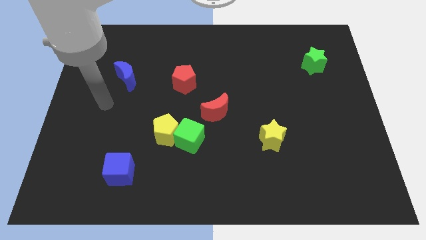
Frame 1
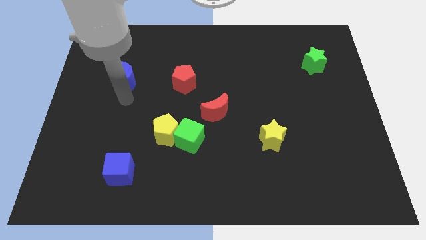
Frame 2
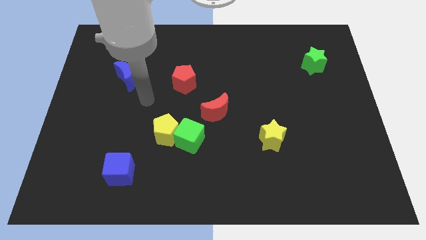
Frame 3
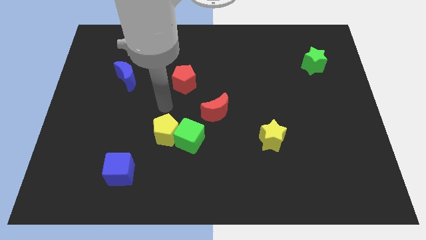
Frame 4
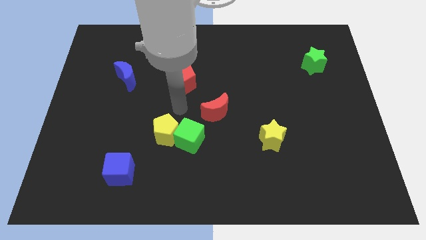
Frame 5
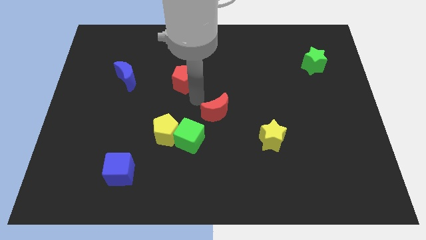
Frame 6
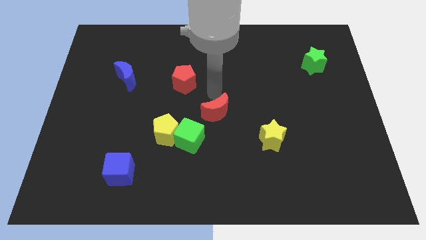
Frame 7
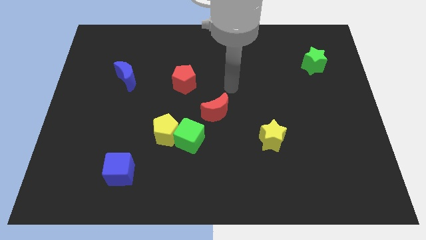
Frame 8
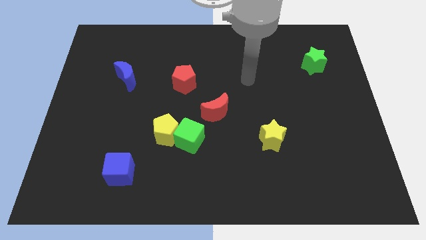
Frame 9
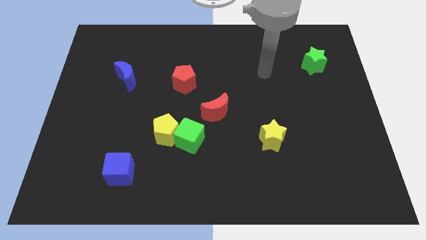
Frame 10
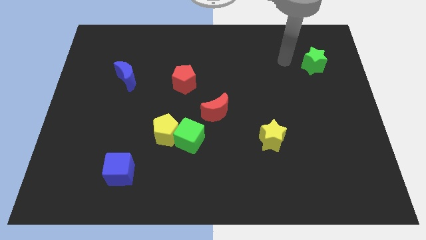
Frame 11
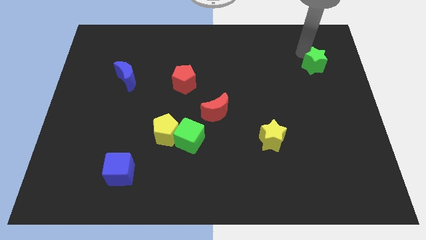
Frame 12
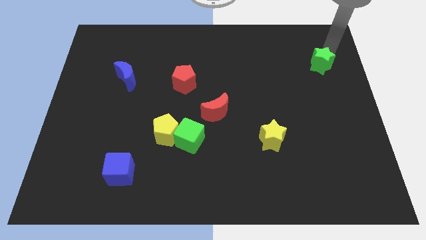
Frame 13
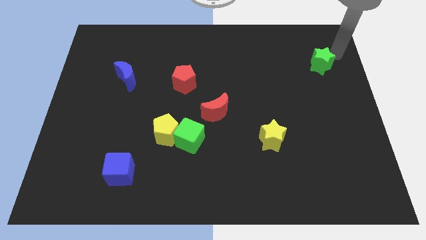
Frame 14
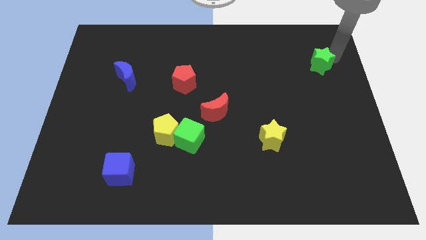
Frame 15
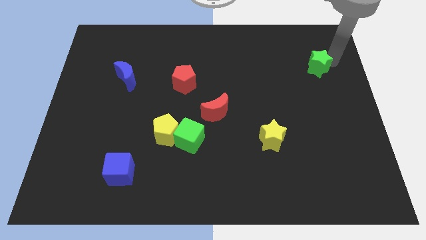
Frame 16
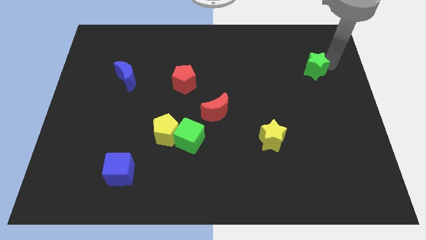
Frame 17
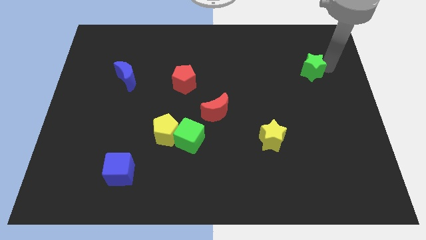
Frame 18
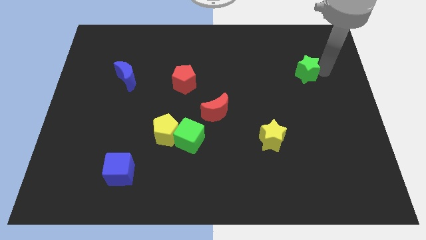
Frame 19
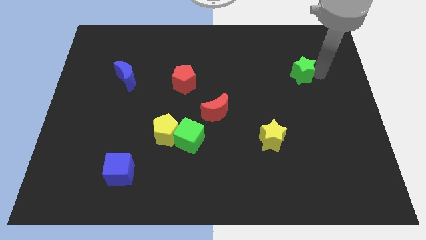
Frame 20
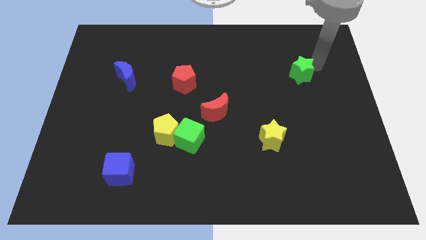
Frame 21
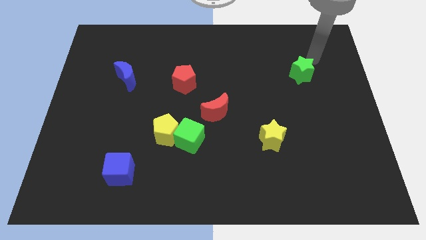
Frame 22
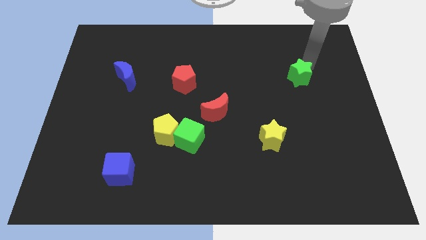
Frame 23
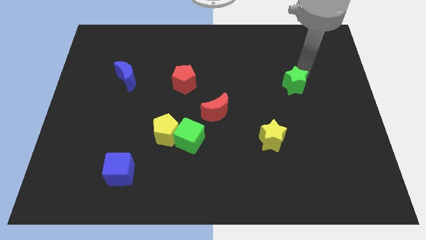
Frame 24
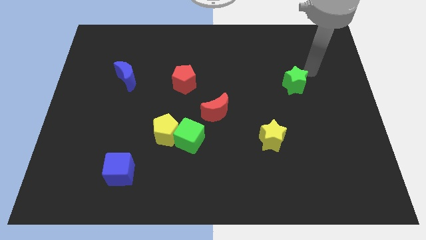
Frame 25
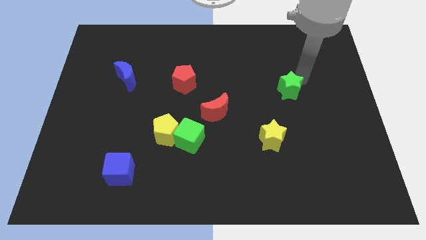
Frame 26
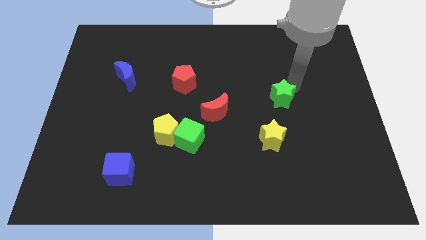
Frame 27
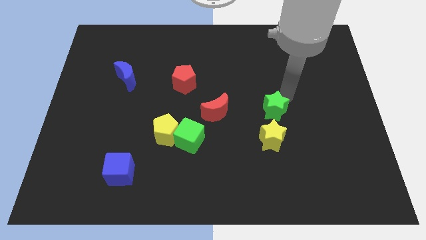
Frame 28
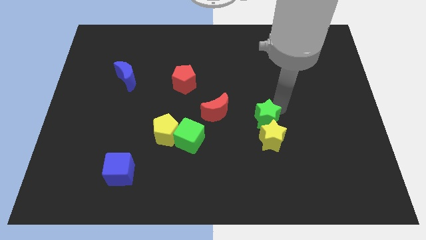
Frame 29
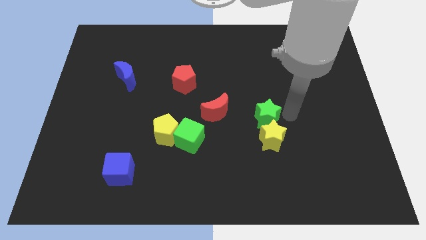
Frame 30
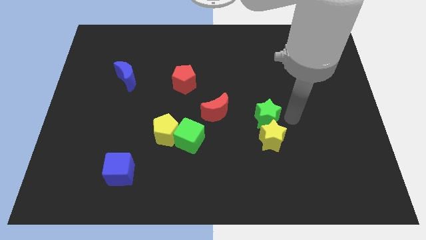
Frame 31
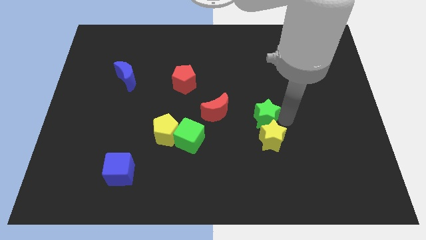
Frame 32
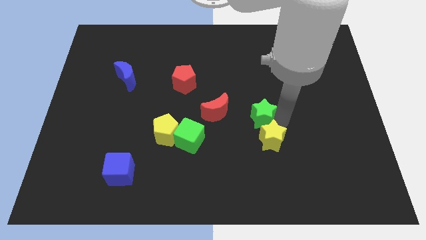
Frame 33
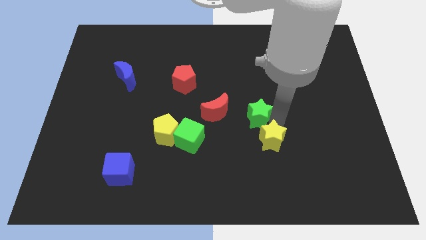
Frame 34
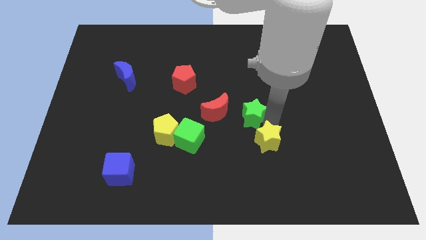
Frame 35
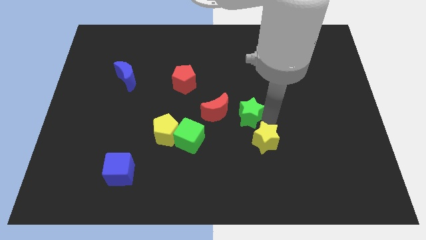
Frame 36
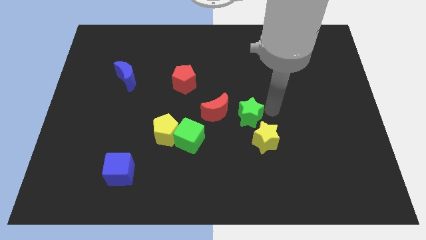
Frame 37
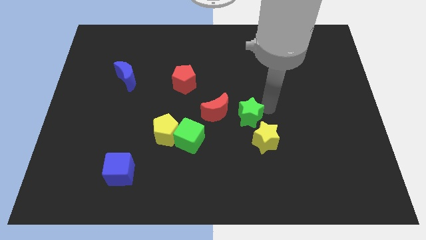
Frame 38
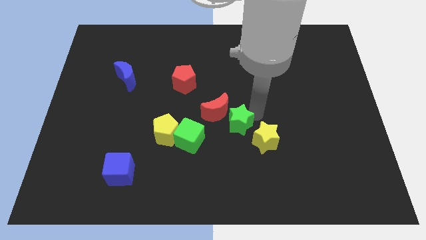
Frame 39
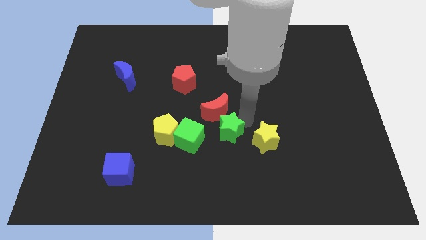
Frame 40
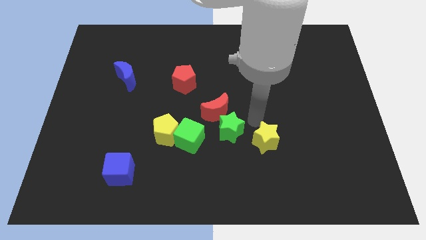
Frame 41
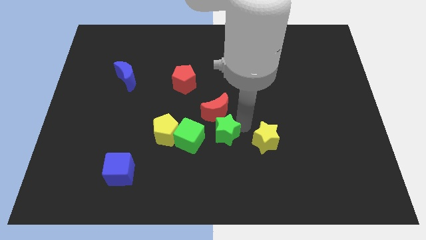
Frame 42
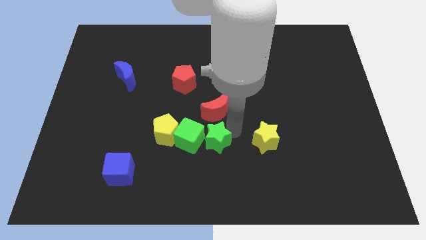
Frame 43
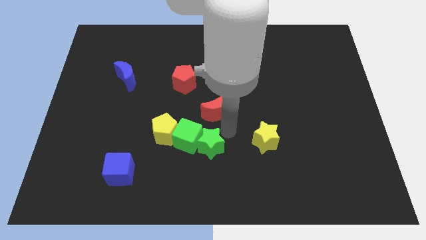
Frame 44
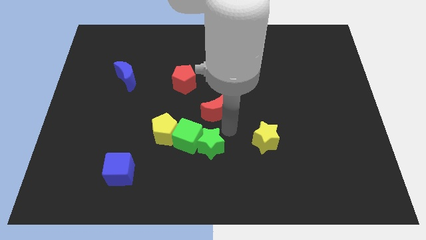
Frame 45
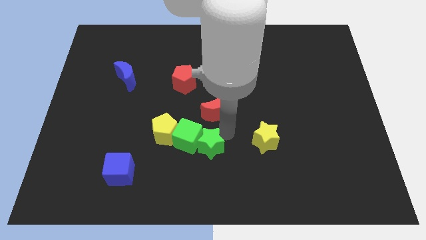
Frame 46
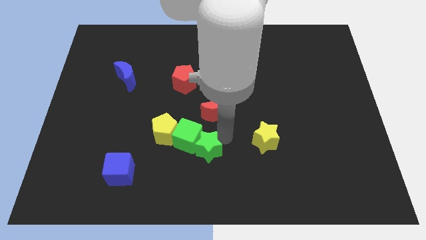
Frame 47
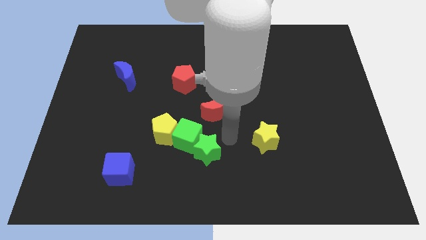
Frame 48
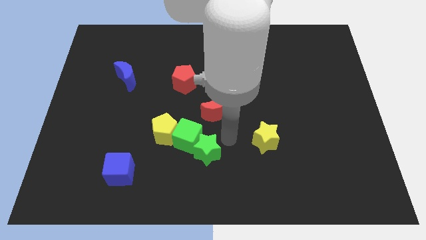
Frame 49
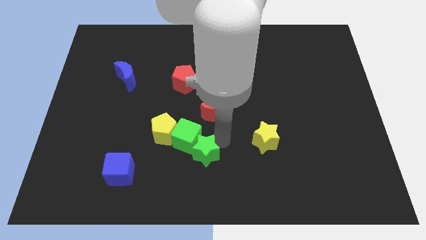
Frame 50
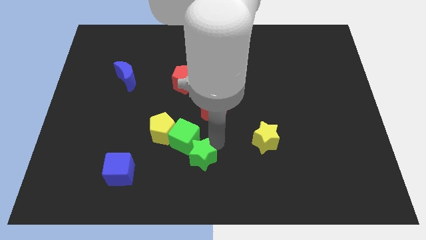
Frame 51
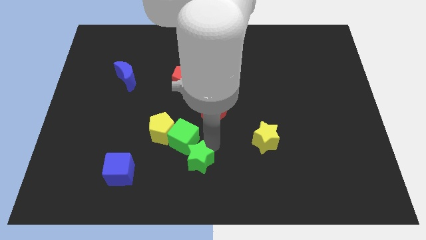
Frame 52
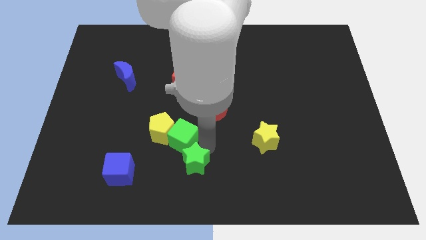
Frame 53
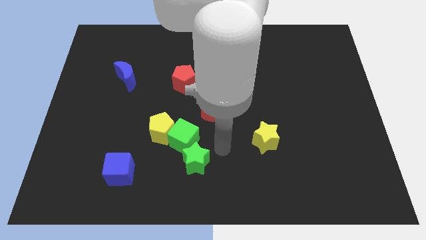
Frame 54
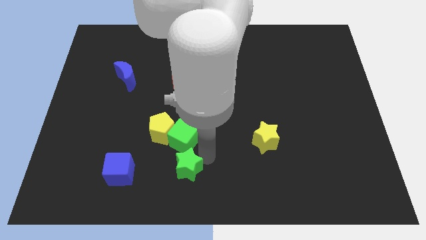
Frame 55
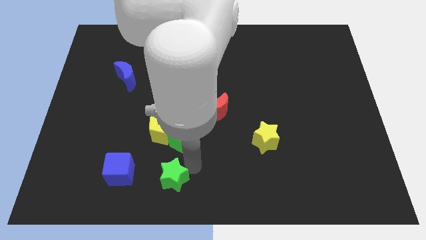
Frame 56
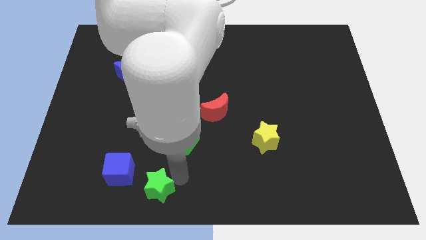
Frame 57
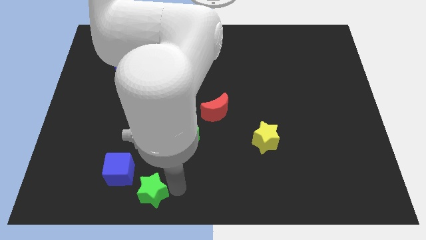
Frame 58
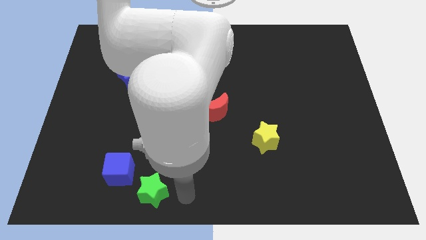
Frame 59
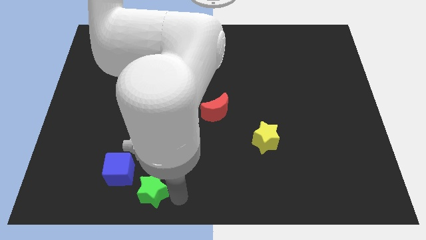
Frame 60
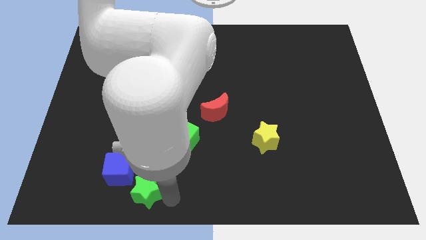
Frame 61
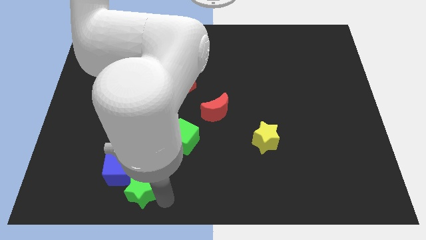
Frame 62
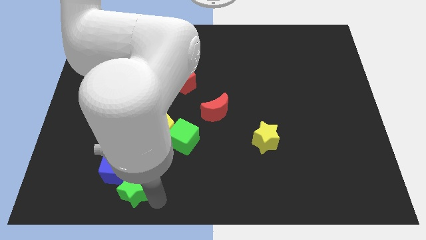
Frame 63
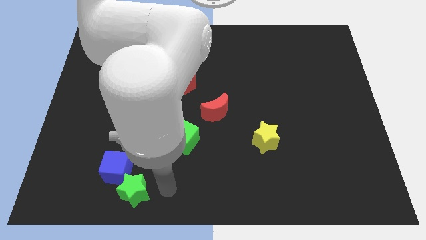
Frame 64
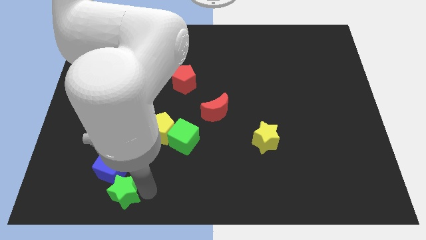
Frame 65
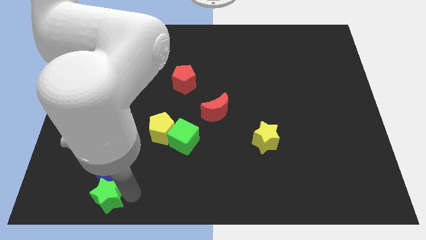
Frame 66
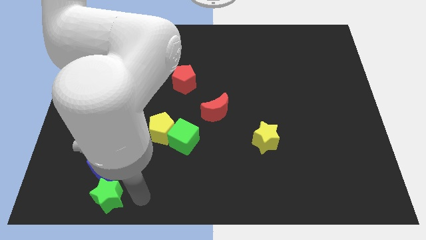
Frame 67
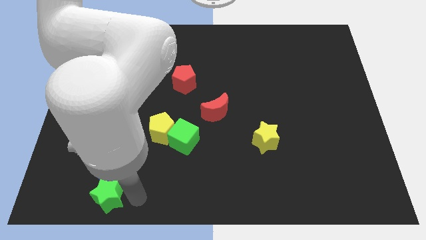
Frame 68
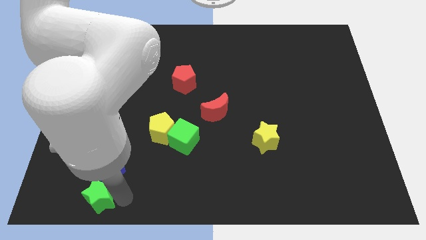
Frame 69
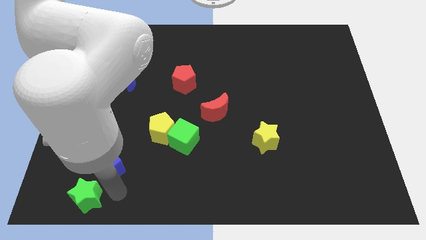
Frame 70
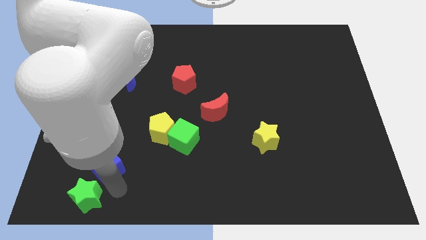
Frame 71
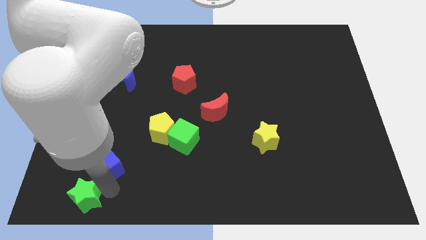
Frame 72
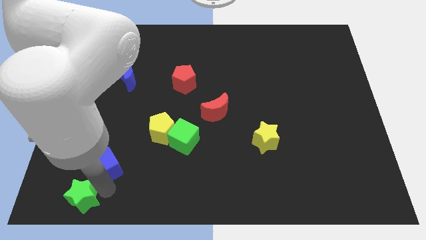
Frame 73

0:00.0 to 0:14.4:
slide the green star to the bottom left

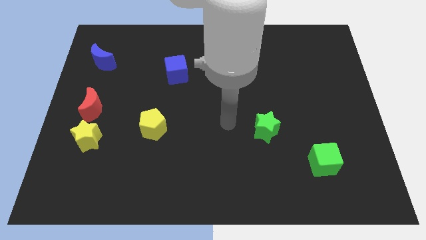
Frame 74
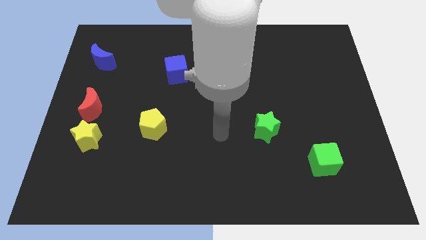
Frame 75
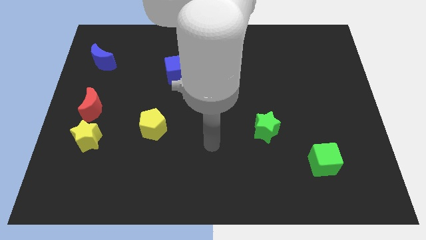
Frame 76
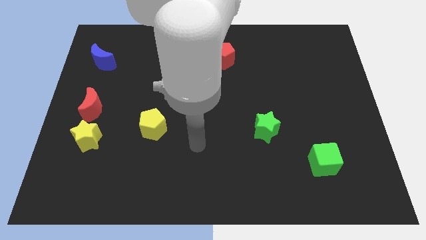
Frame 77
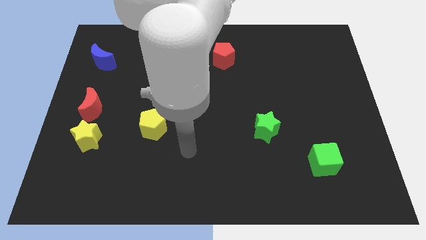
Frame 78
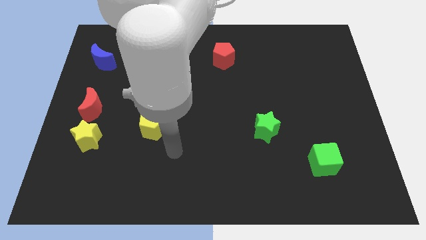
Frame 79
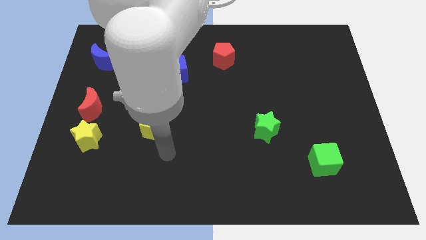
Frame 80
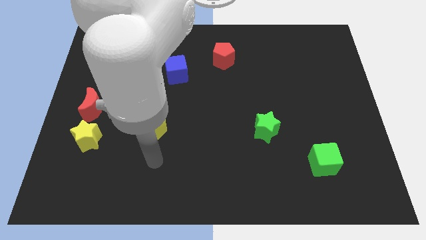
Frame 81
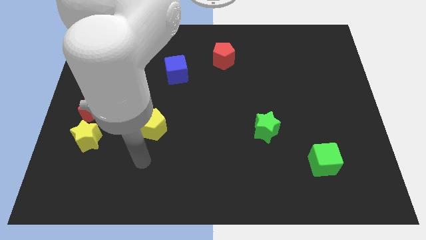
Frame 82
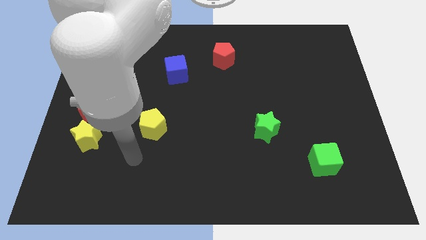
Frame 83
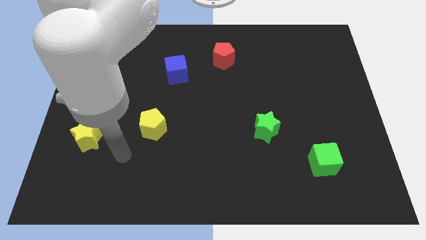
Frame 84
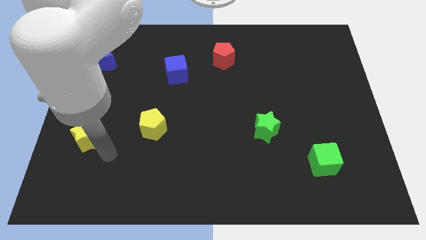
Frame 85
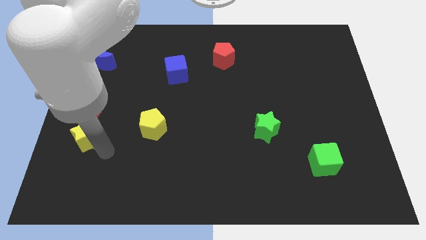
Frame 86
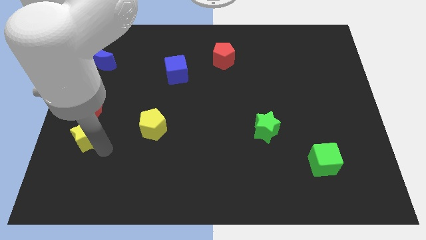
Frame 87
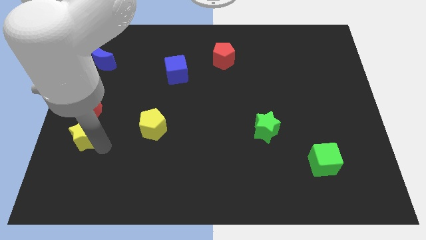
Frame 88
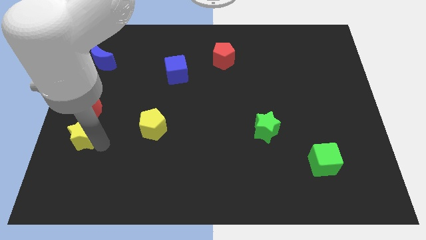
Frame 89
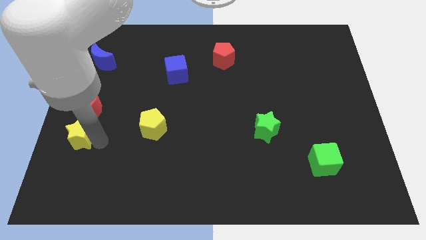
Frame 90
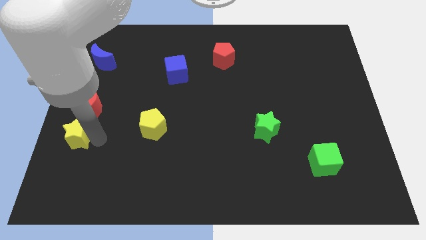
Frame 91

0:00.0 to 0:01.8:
move the yellow star to the center left
